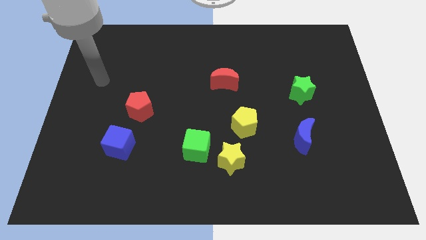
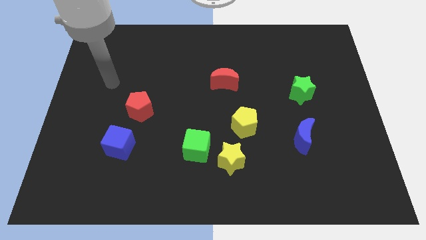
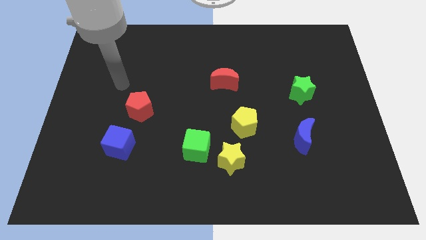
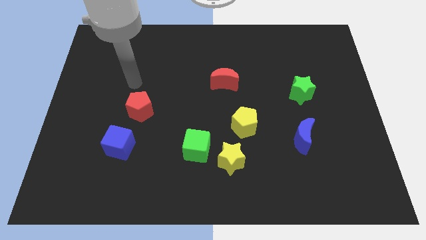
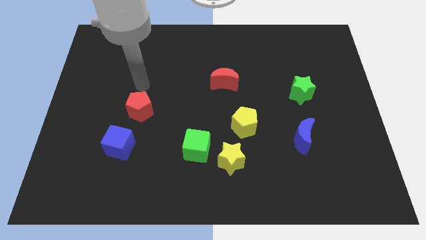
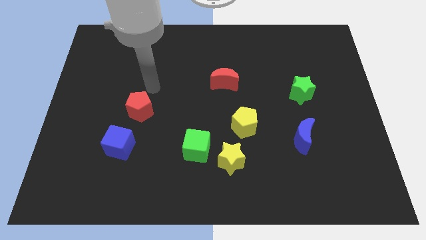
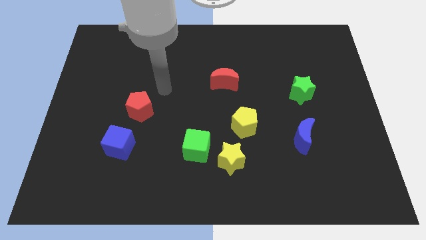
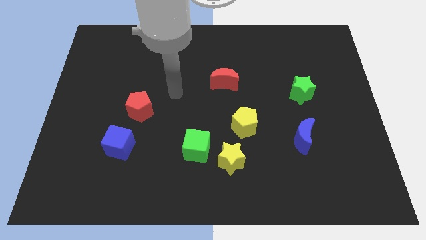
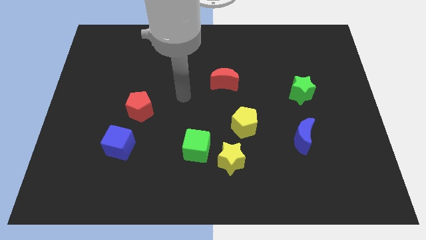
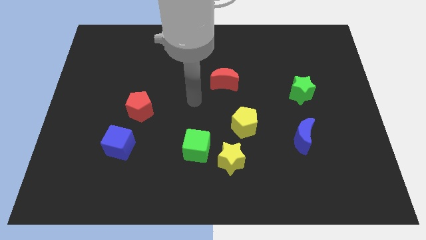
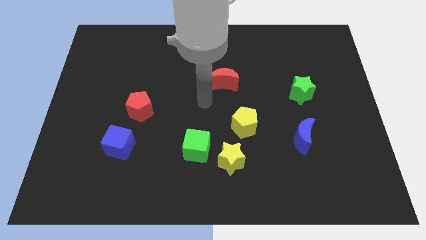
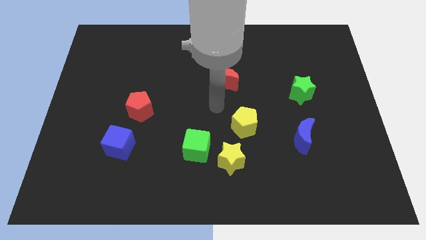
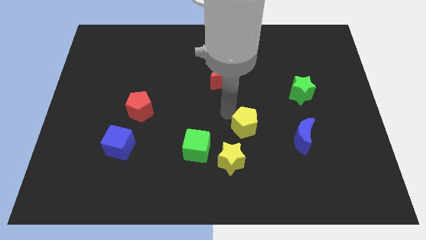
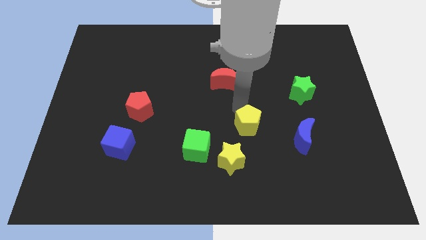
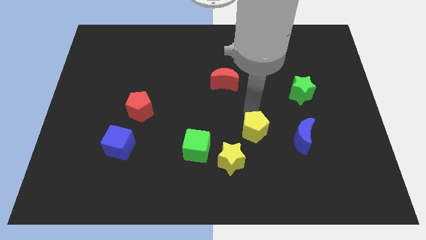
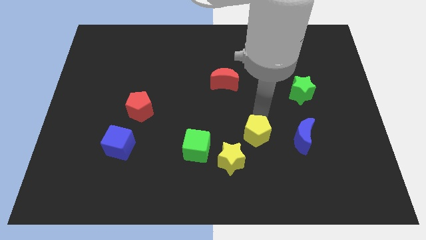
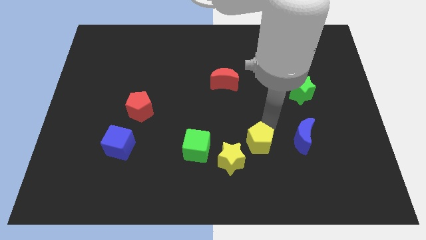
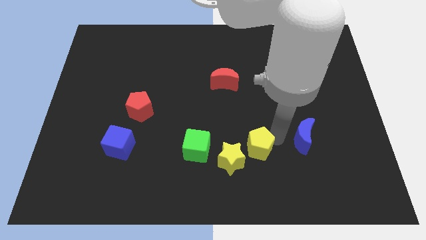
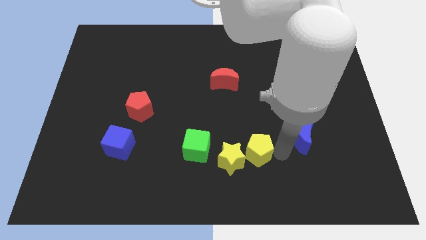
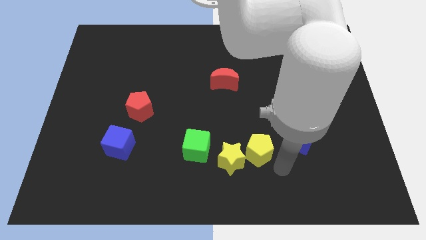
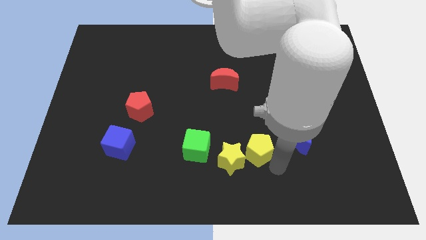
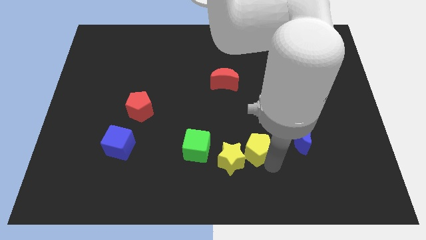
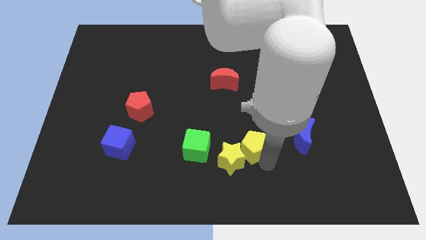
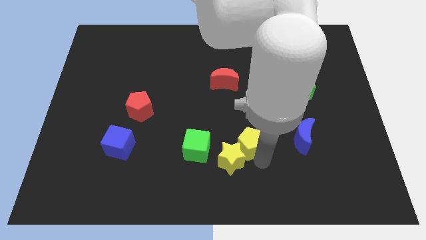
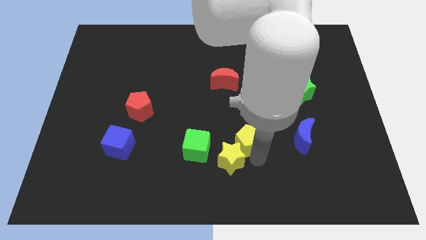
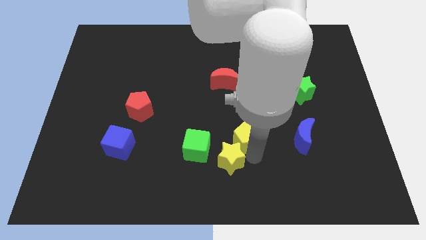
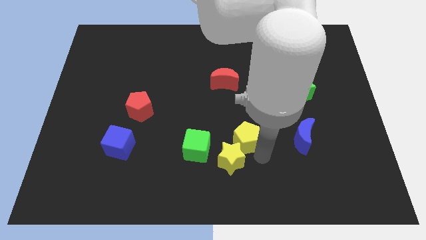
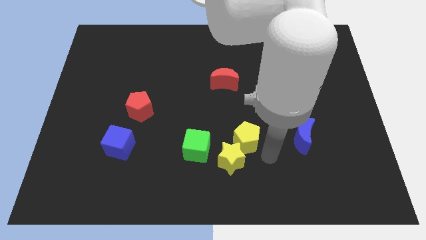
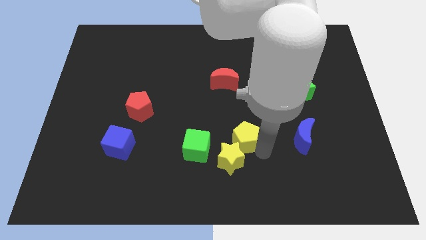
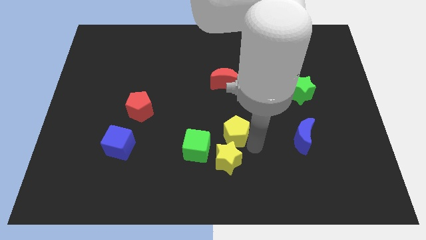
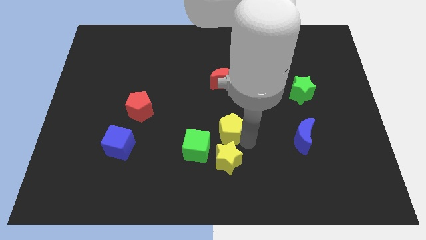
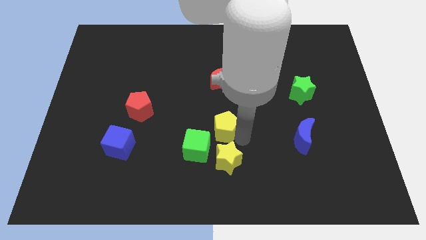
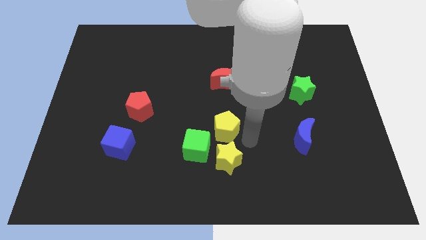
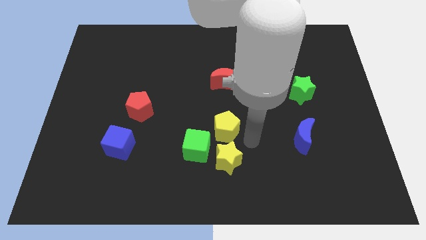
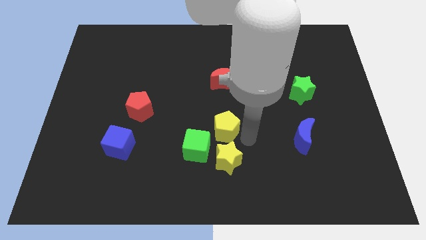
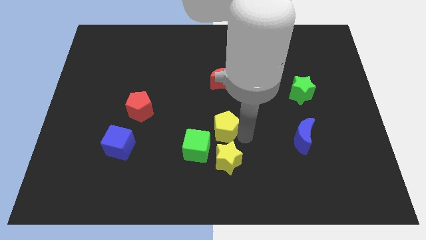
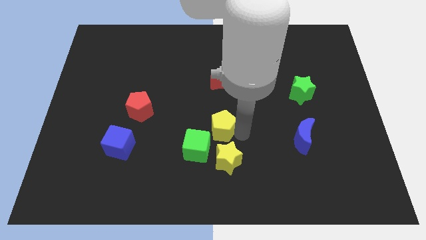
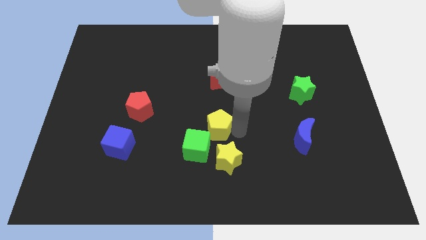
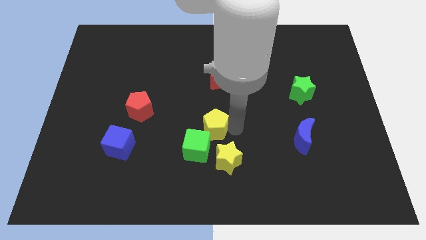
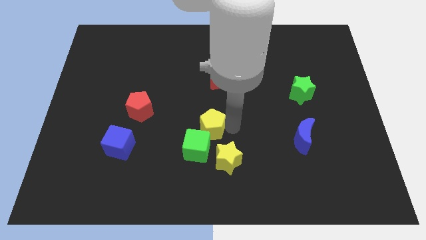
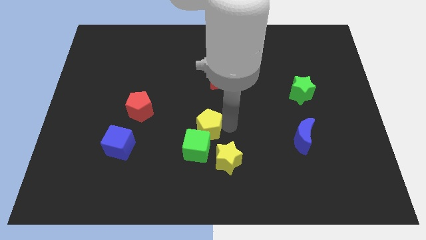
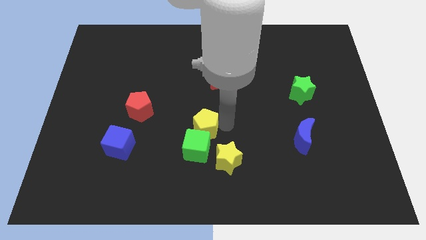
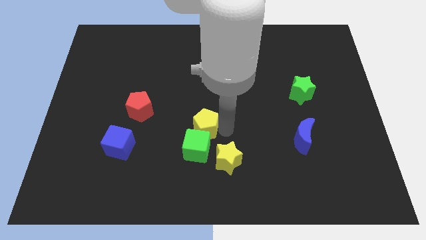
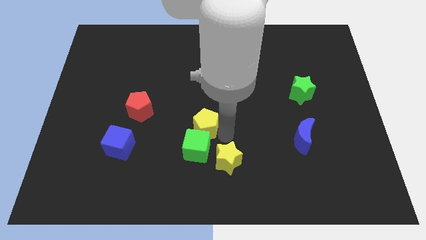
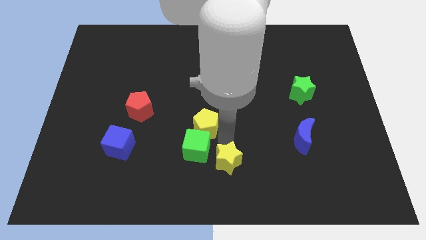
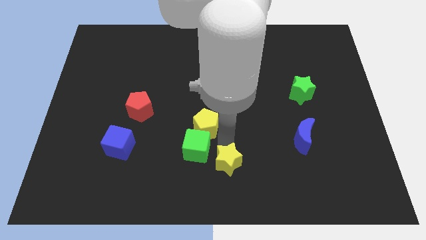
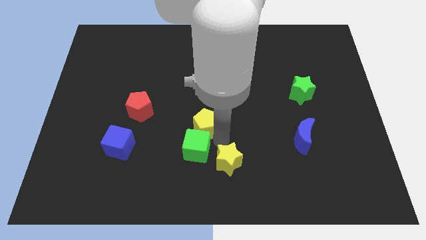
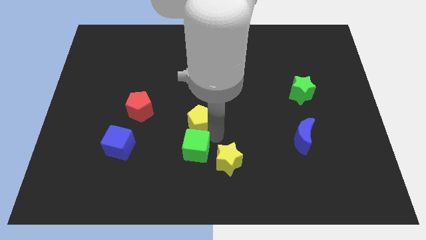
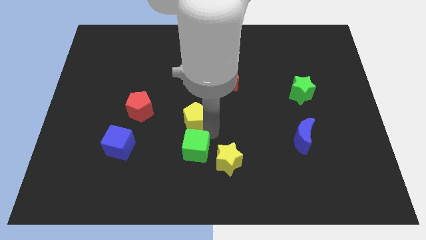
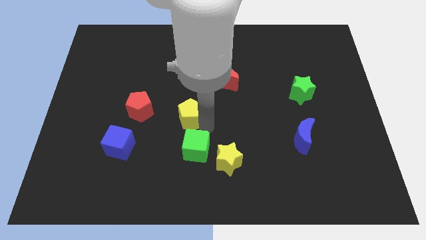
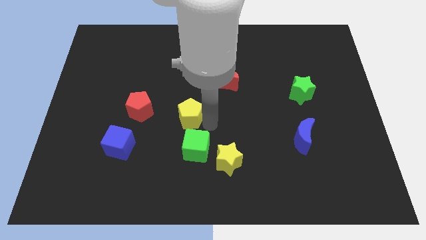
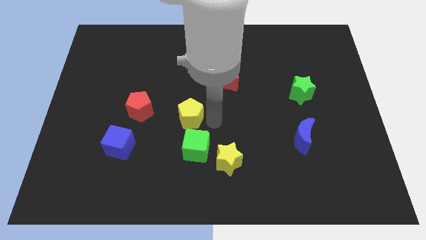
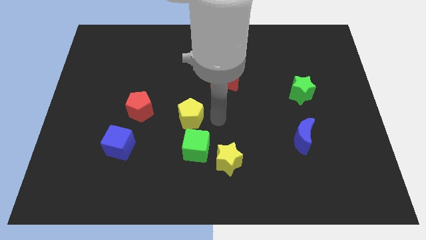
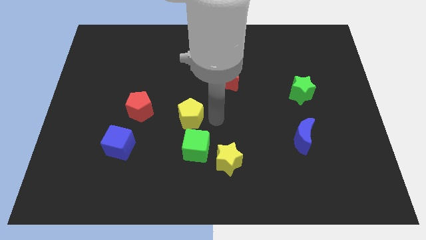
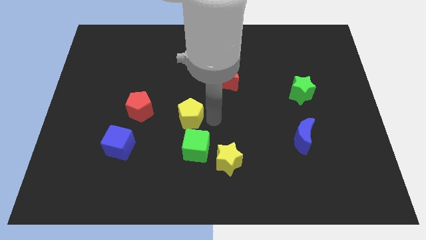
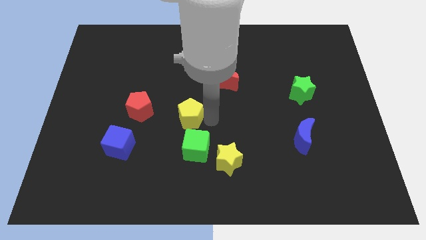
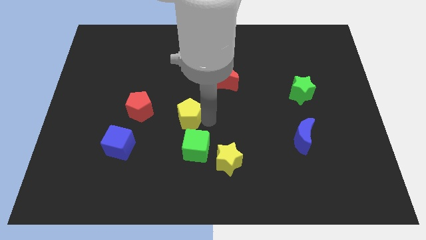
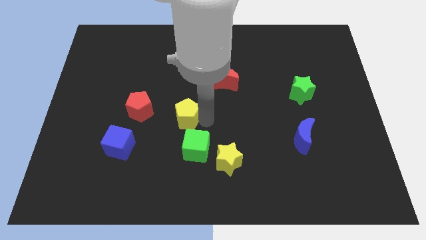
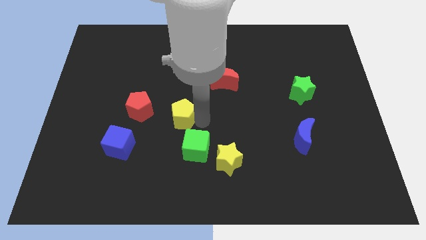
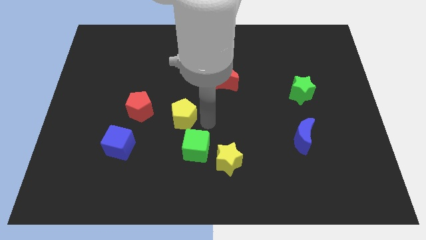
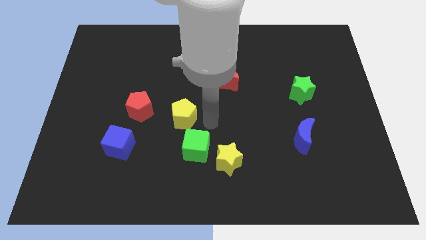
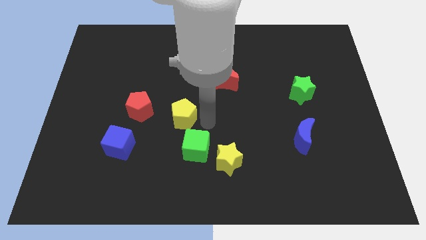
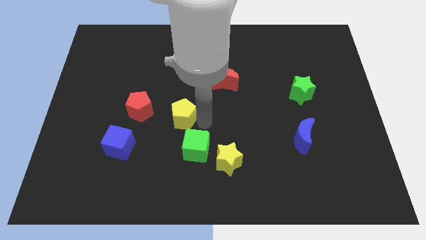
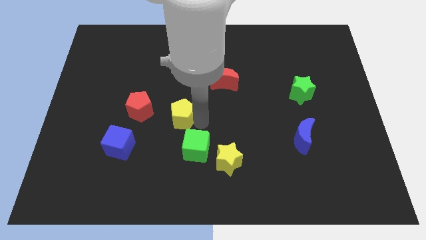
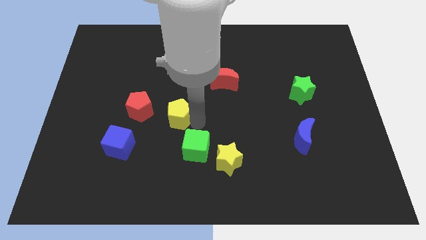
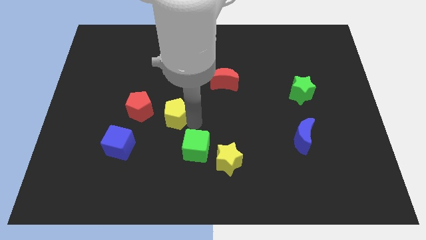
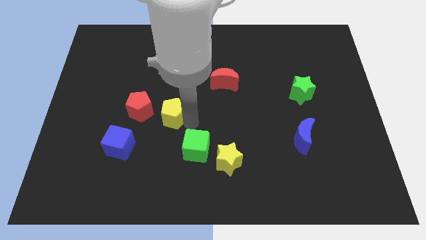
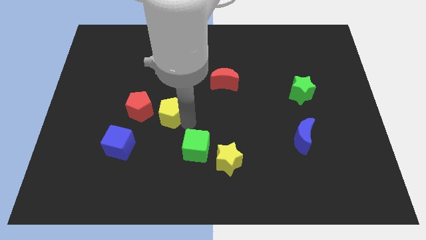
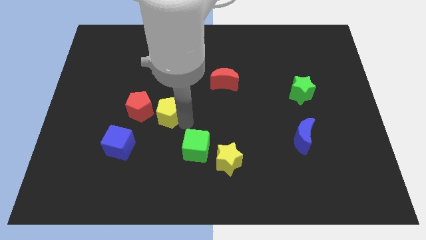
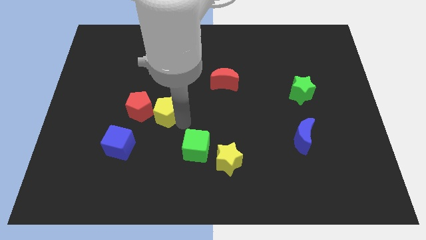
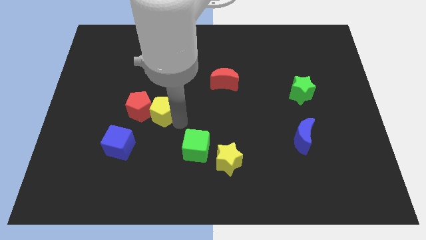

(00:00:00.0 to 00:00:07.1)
push the yellow pentagon to the red pentagon
